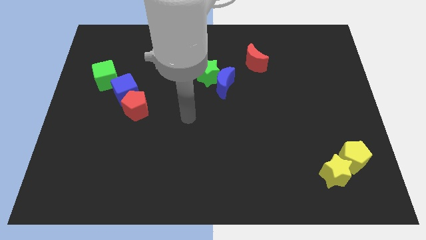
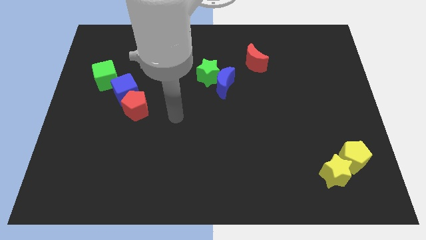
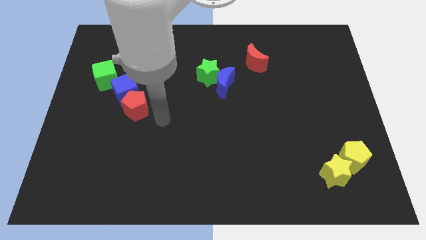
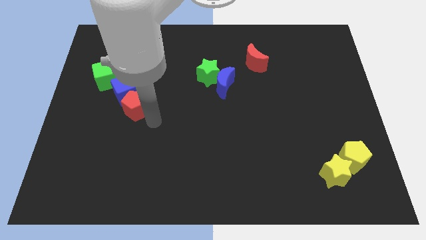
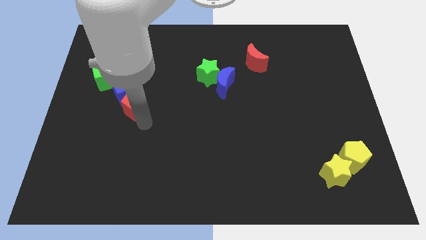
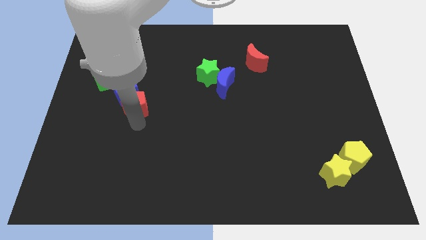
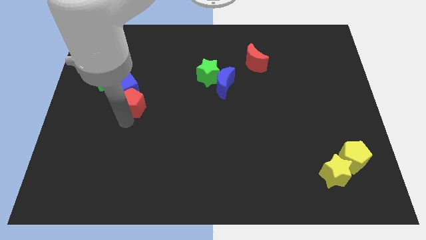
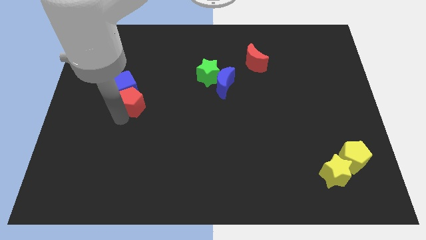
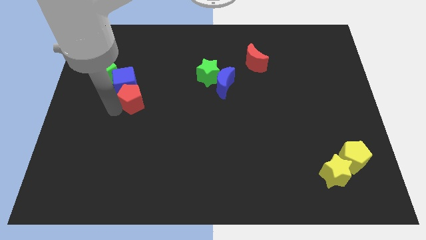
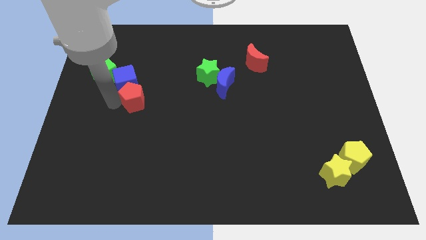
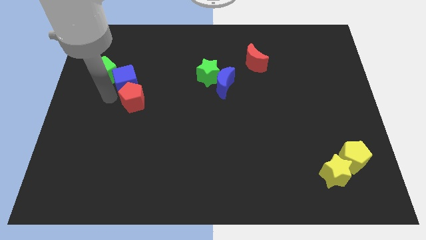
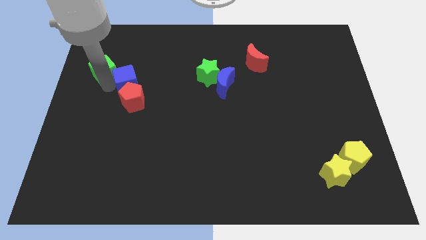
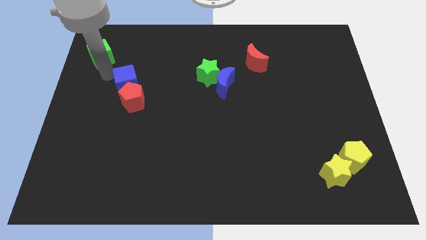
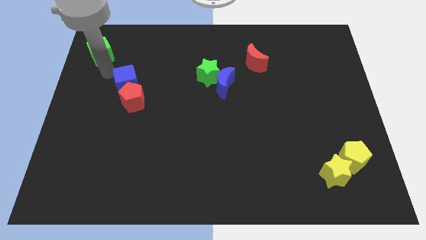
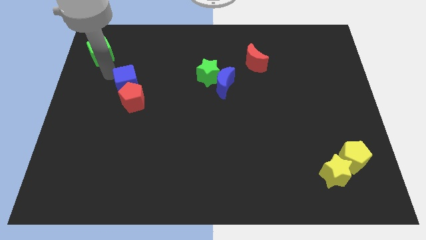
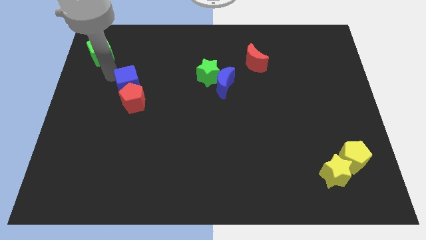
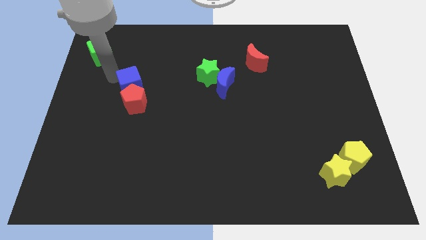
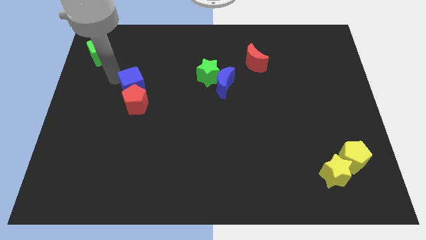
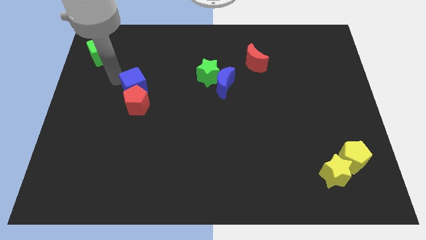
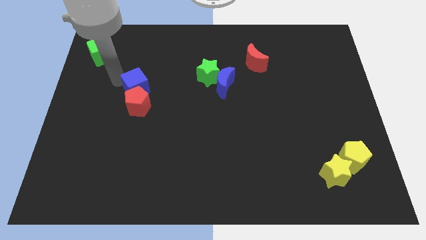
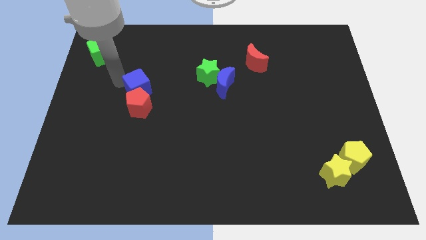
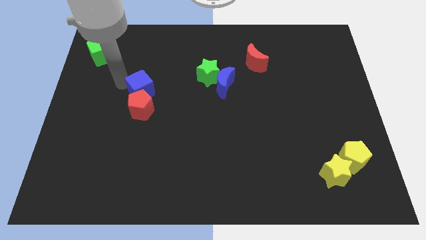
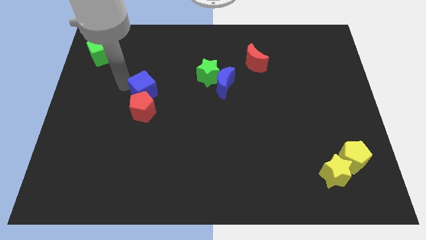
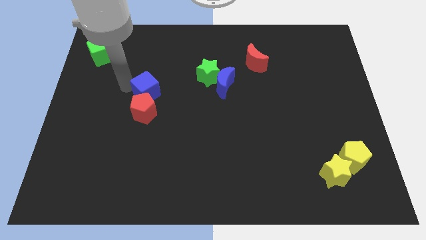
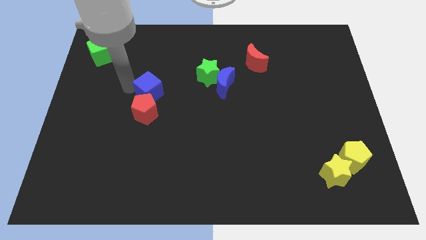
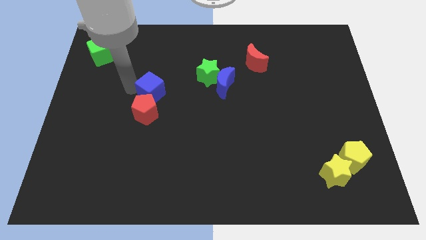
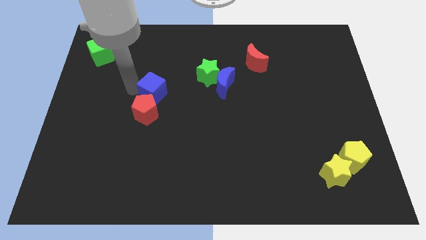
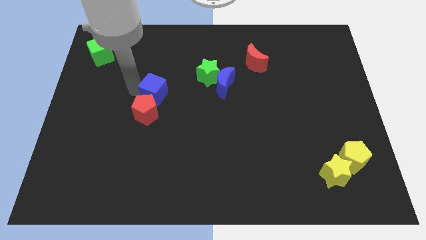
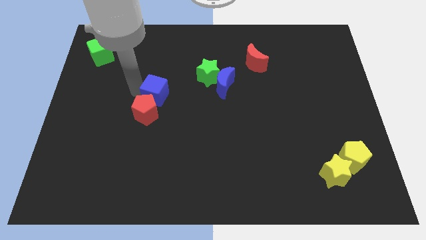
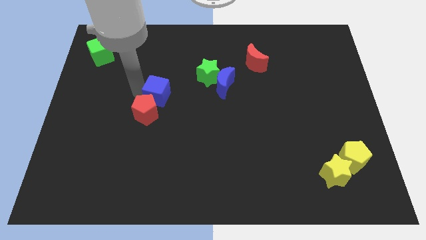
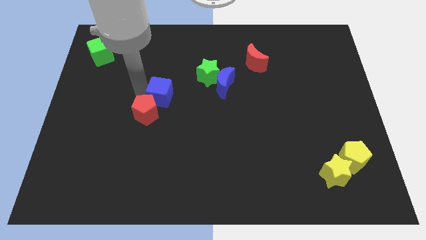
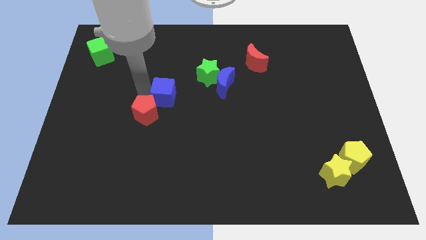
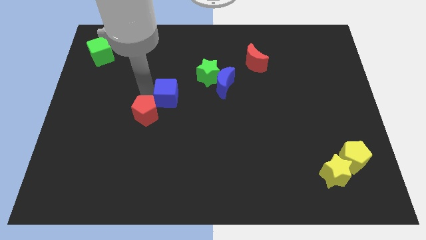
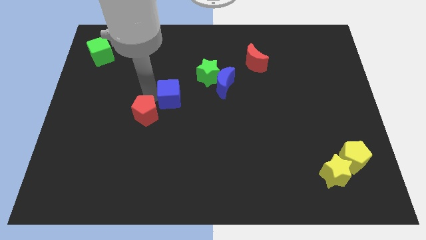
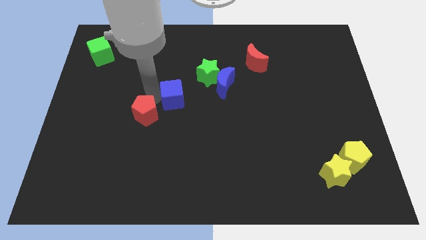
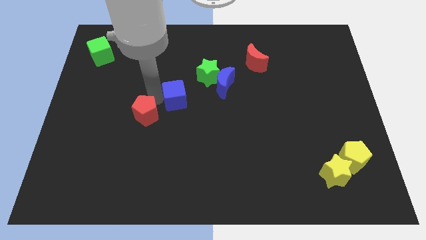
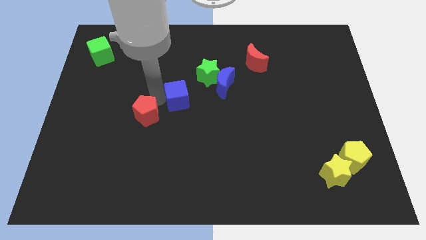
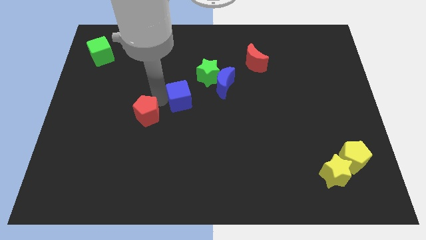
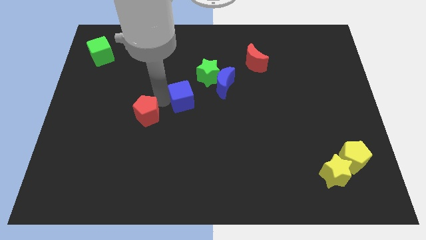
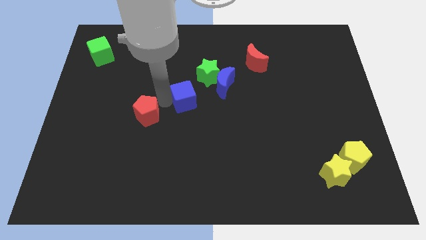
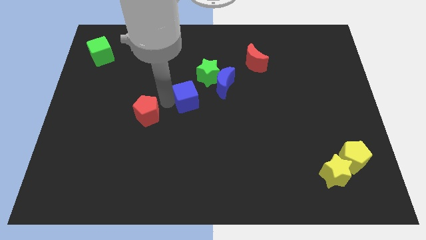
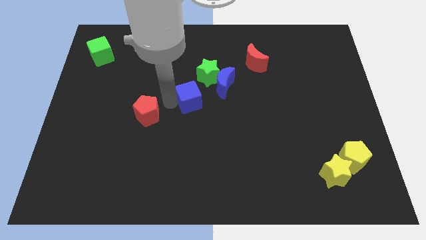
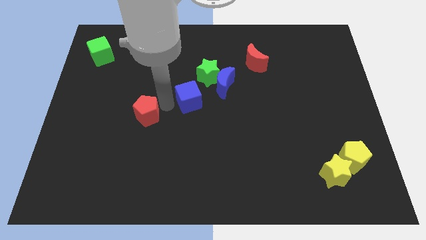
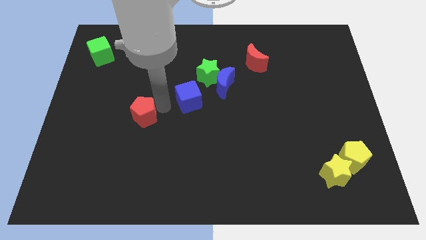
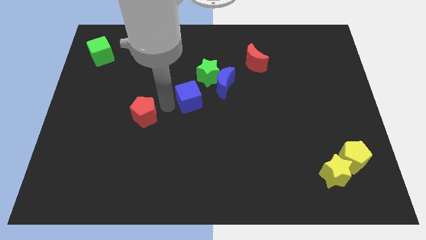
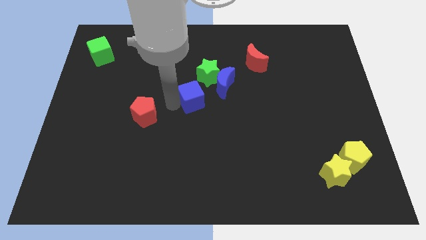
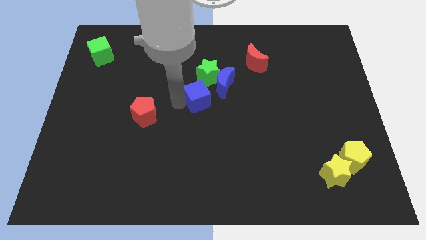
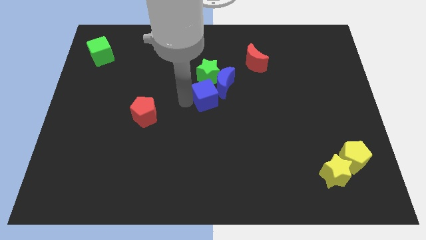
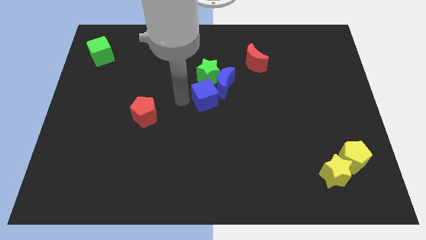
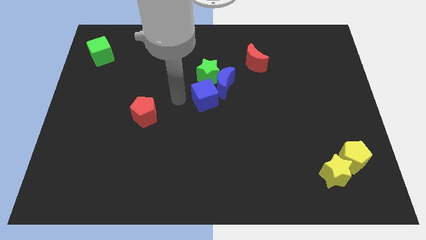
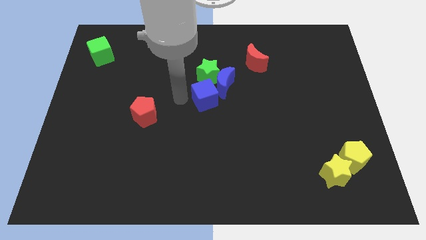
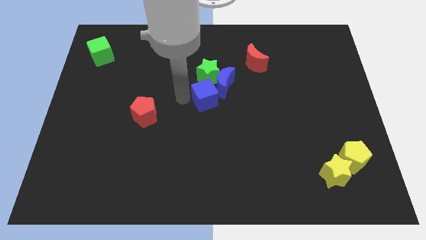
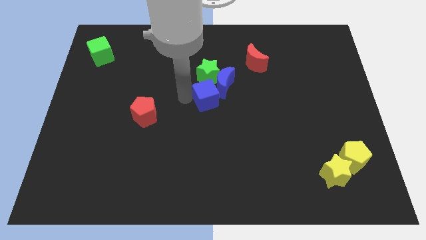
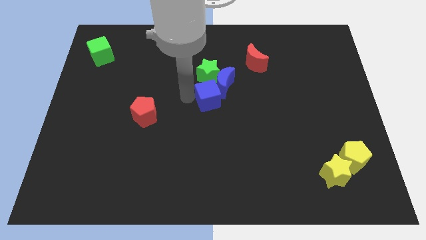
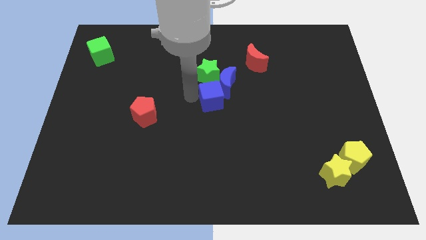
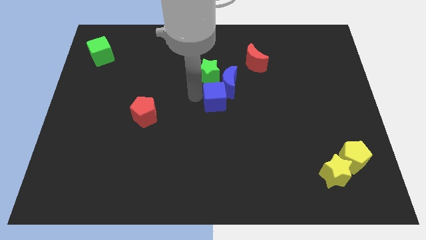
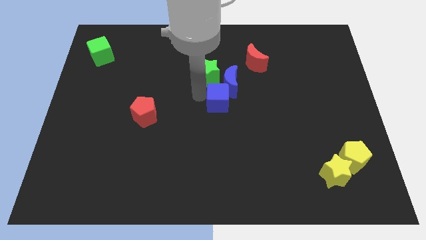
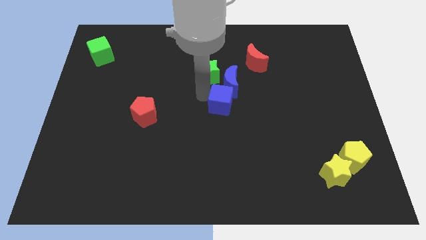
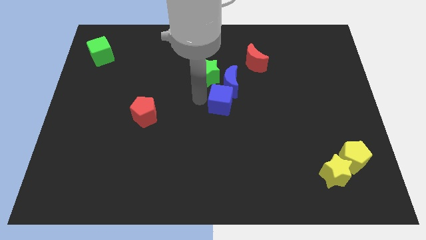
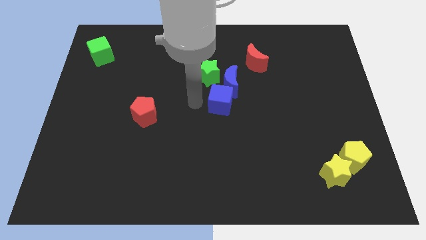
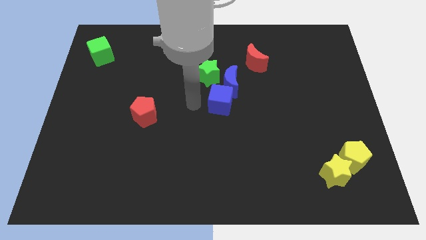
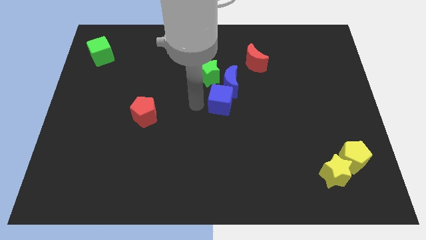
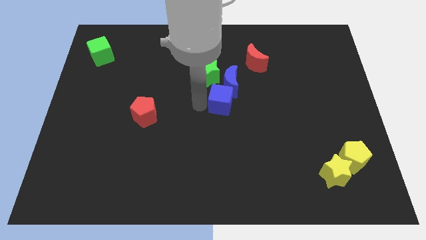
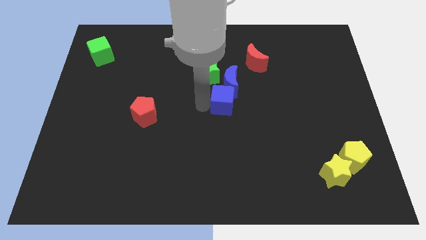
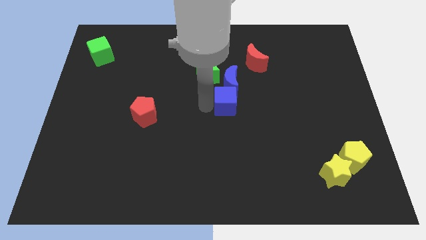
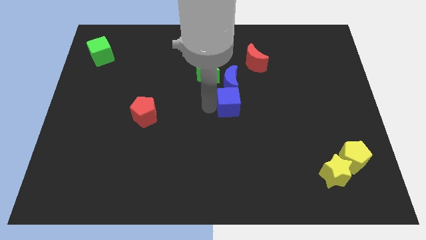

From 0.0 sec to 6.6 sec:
push the blue cube to the bottom right of the blue moon
